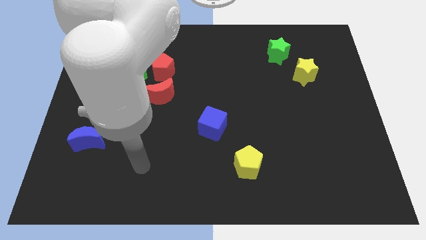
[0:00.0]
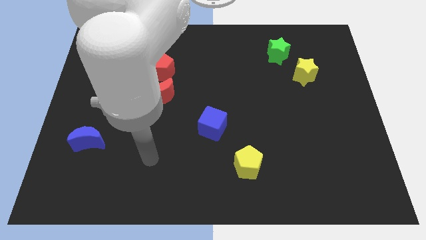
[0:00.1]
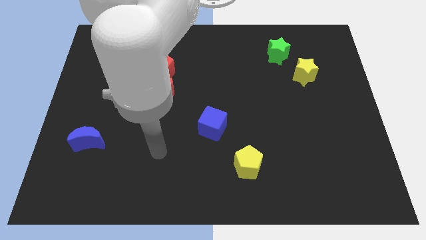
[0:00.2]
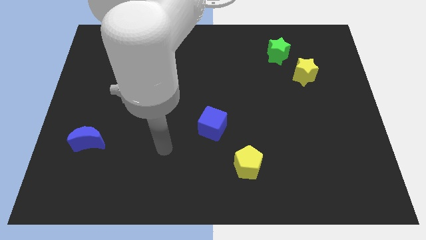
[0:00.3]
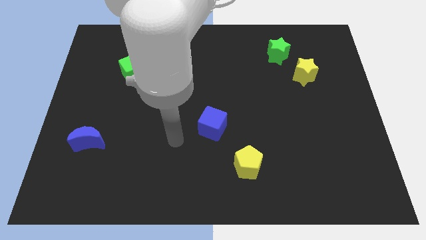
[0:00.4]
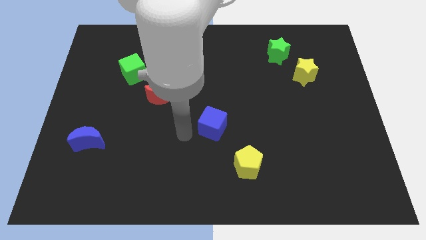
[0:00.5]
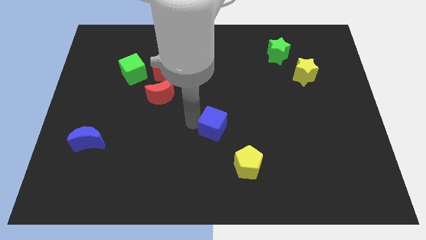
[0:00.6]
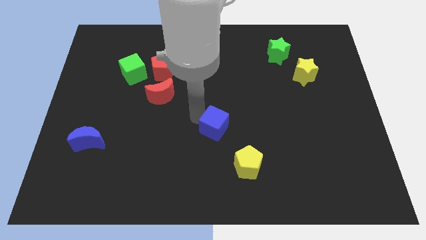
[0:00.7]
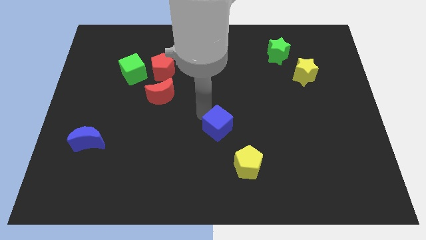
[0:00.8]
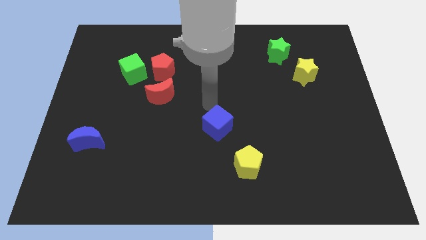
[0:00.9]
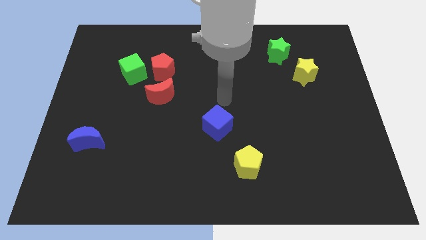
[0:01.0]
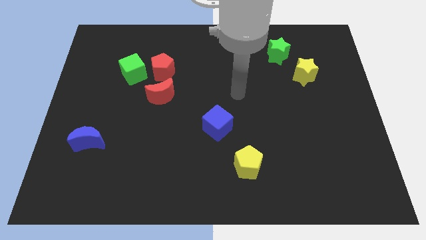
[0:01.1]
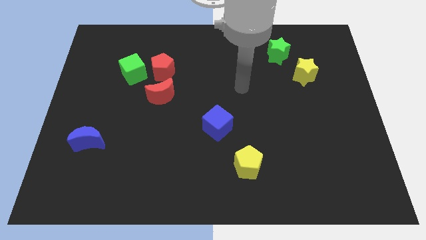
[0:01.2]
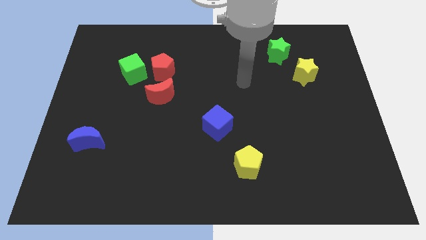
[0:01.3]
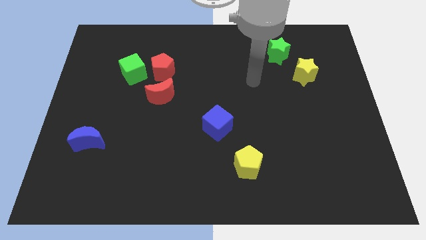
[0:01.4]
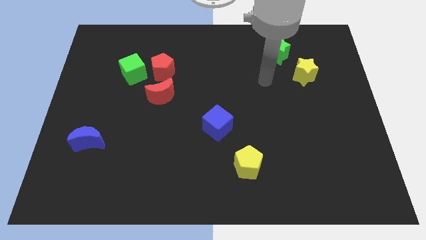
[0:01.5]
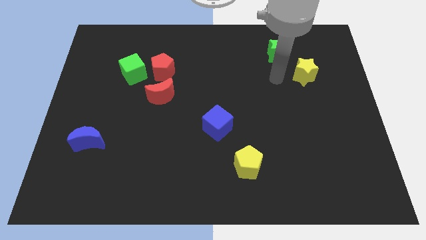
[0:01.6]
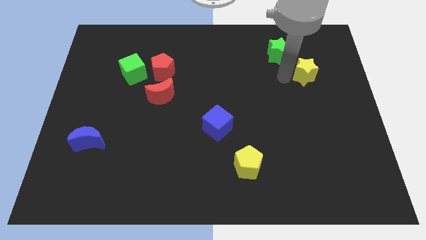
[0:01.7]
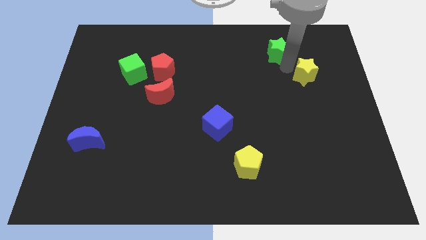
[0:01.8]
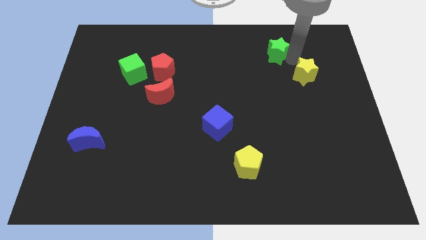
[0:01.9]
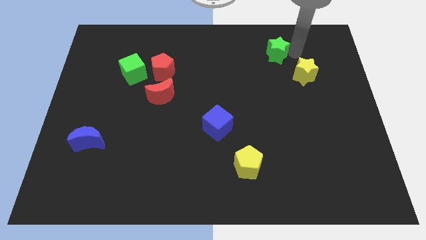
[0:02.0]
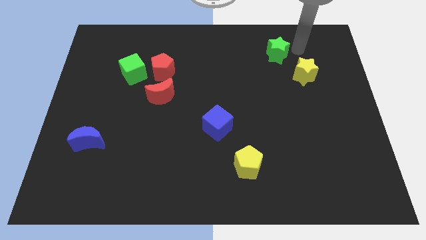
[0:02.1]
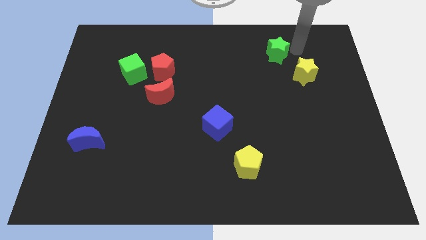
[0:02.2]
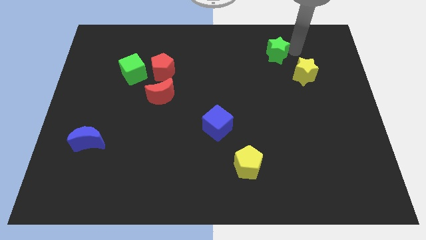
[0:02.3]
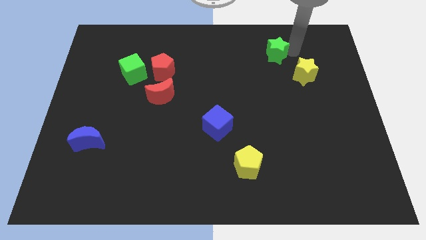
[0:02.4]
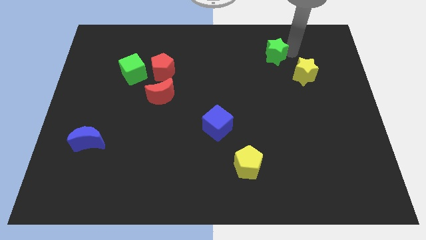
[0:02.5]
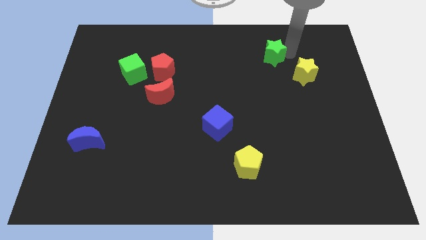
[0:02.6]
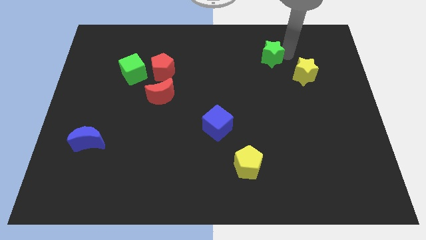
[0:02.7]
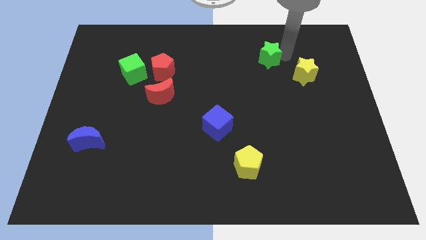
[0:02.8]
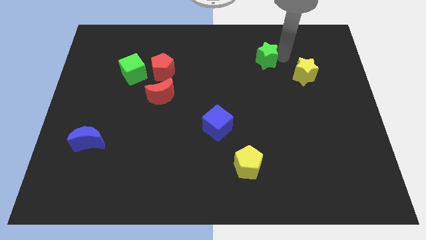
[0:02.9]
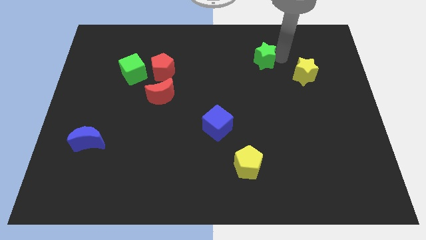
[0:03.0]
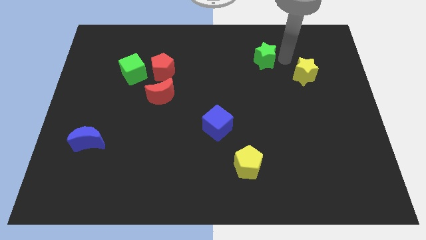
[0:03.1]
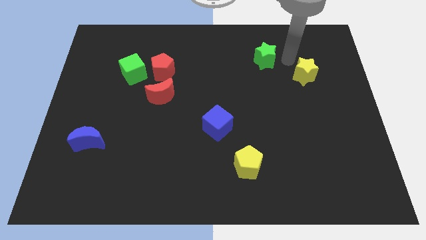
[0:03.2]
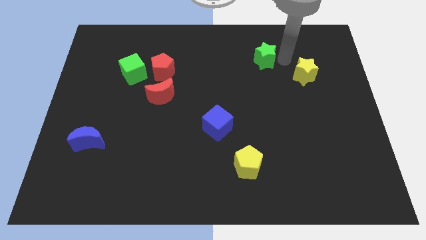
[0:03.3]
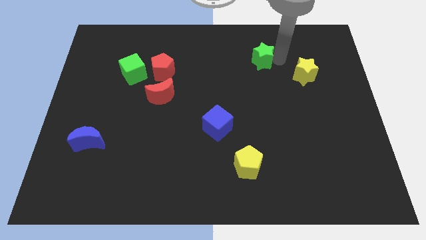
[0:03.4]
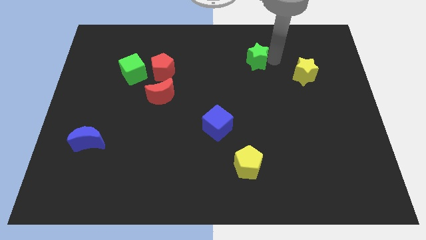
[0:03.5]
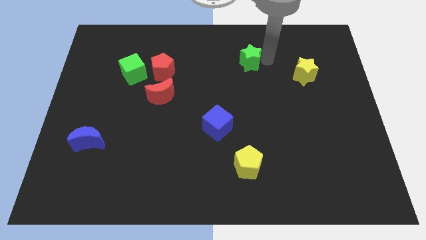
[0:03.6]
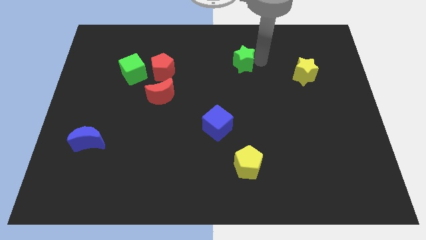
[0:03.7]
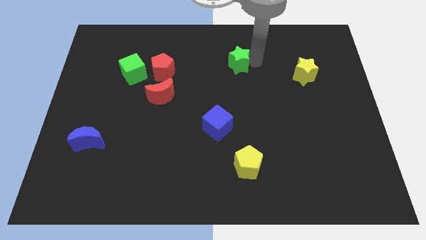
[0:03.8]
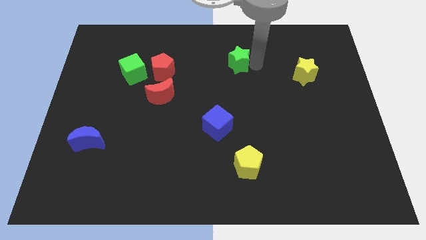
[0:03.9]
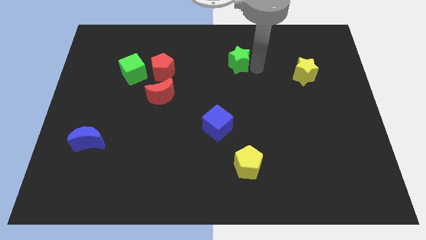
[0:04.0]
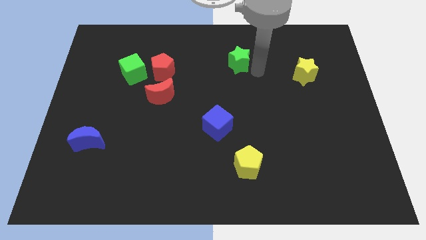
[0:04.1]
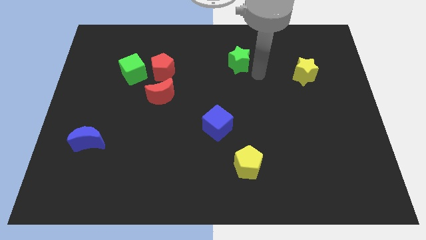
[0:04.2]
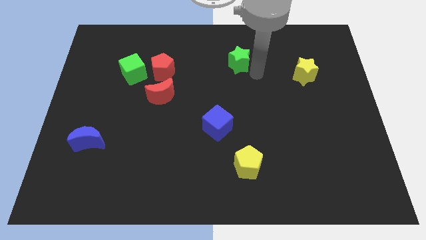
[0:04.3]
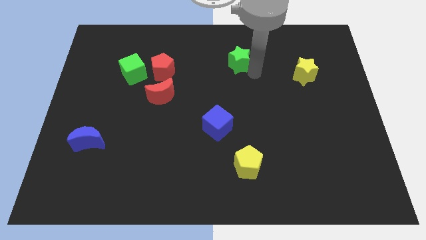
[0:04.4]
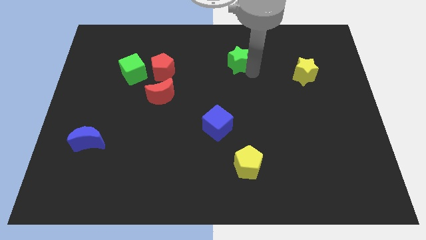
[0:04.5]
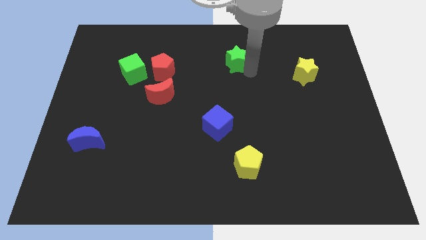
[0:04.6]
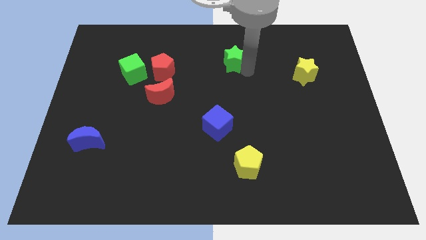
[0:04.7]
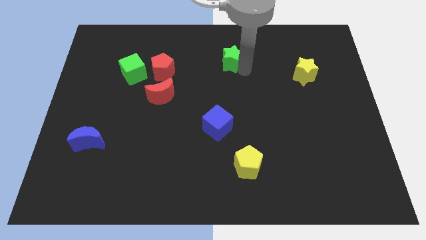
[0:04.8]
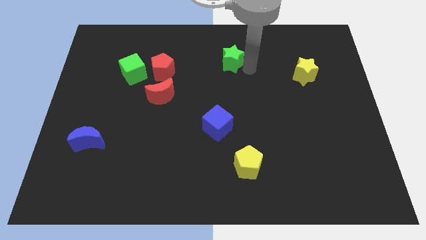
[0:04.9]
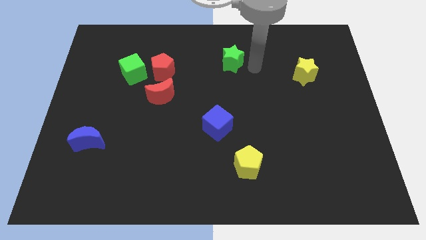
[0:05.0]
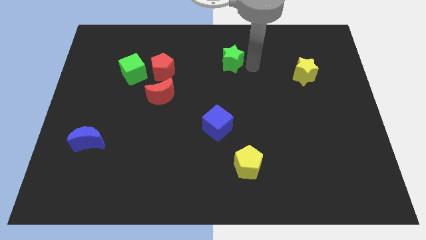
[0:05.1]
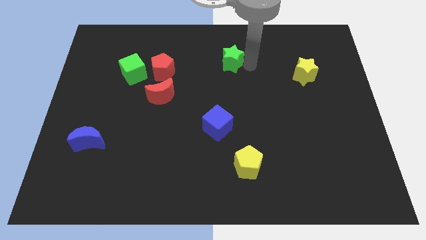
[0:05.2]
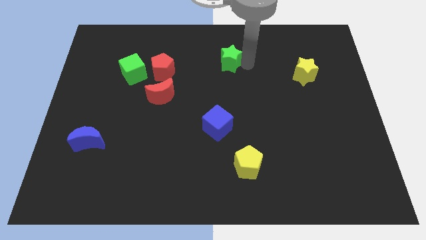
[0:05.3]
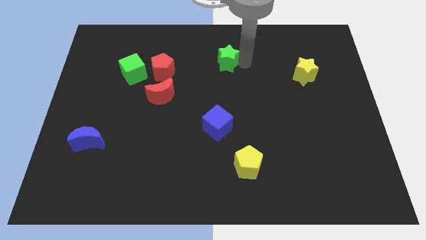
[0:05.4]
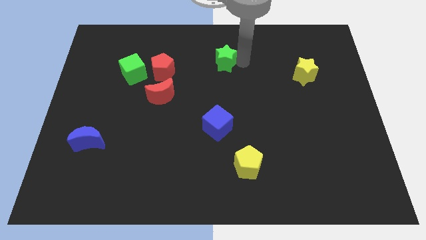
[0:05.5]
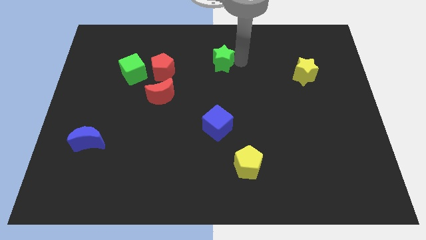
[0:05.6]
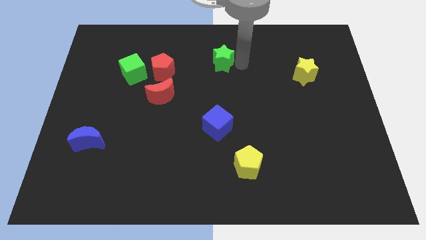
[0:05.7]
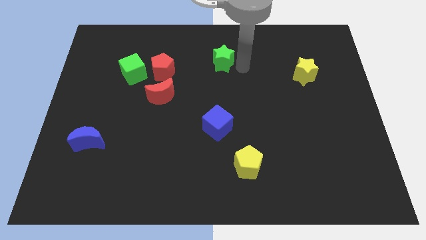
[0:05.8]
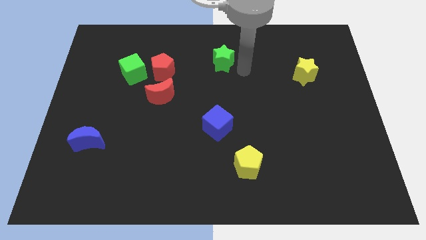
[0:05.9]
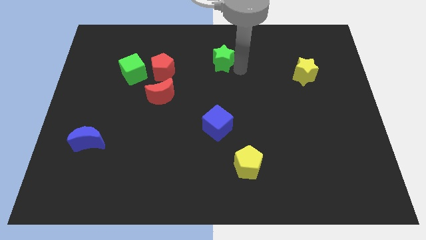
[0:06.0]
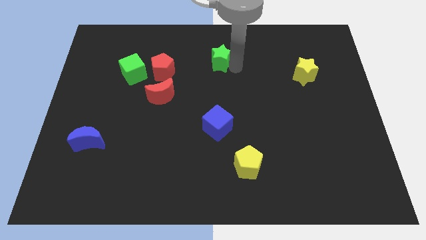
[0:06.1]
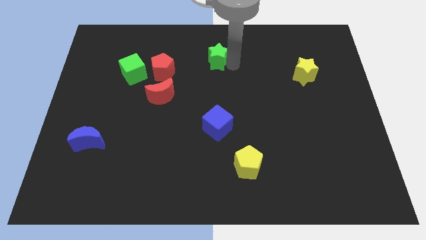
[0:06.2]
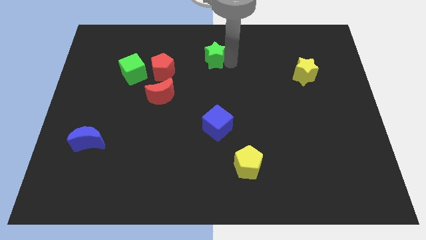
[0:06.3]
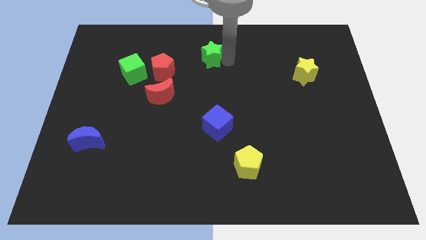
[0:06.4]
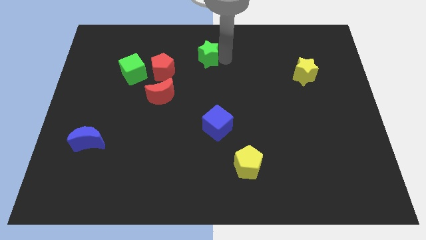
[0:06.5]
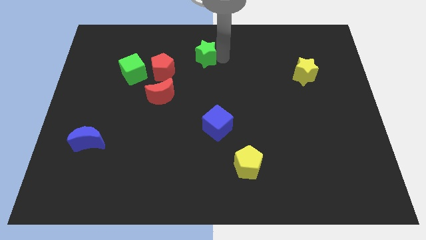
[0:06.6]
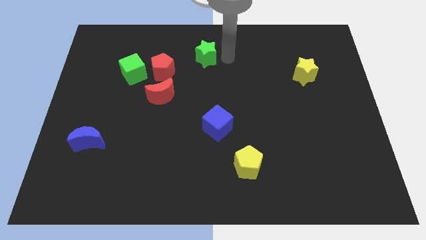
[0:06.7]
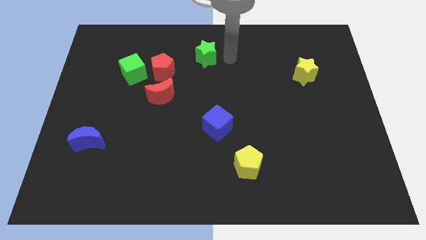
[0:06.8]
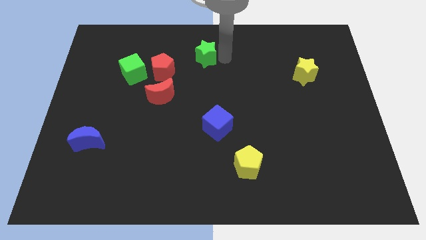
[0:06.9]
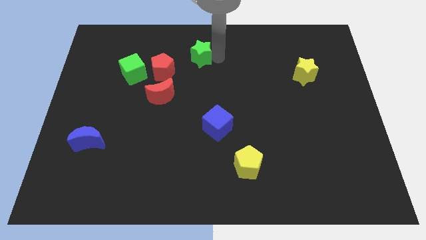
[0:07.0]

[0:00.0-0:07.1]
slide the green star to the left

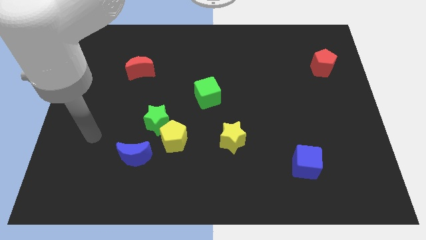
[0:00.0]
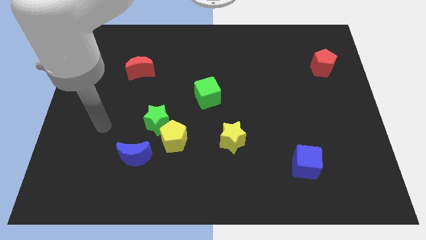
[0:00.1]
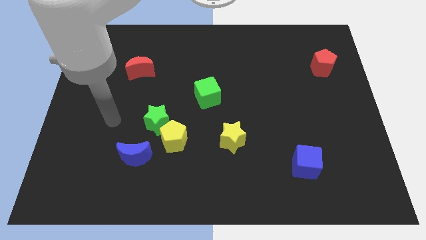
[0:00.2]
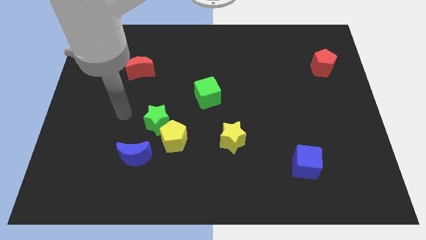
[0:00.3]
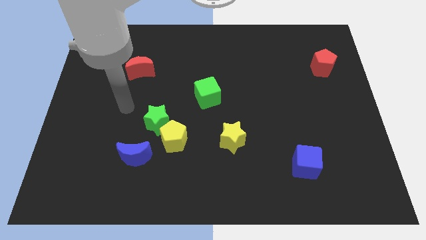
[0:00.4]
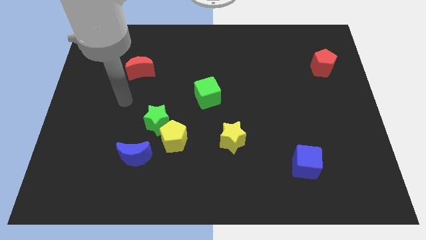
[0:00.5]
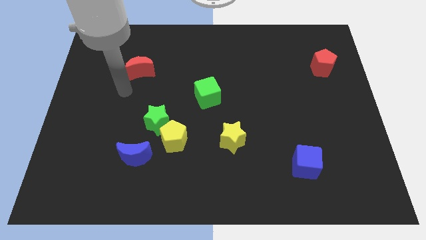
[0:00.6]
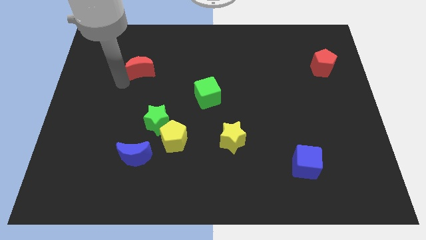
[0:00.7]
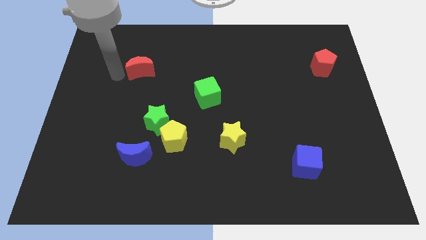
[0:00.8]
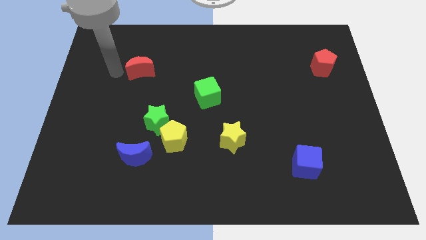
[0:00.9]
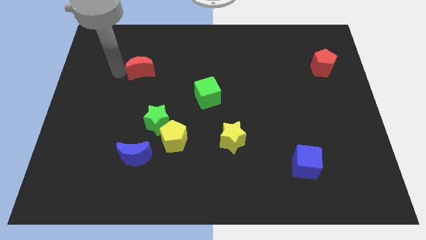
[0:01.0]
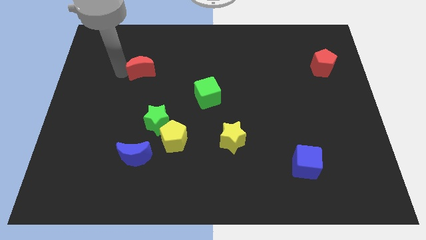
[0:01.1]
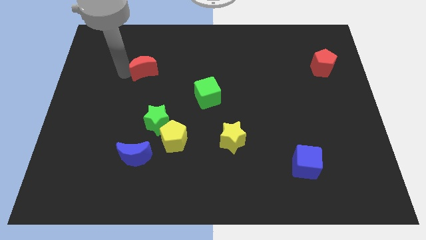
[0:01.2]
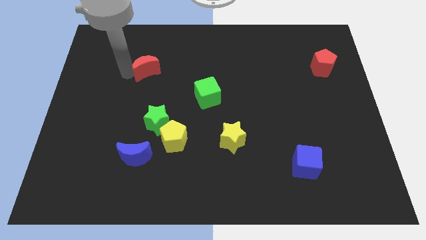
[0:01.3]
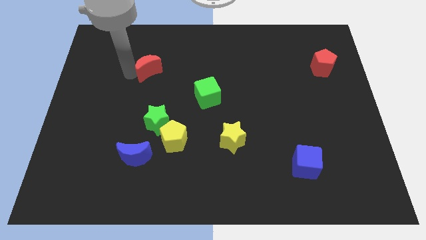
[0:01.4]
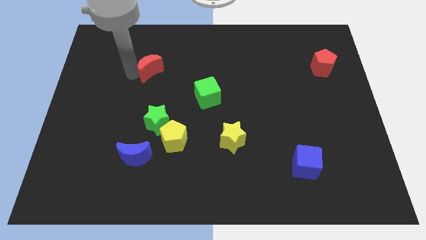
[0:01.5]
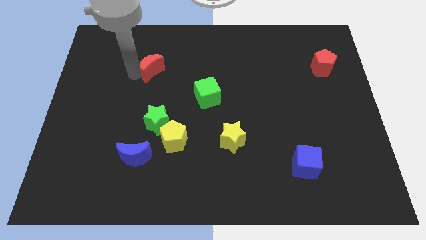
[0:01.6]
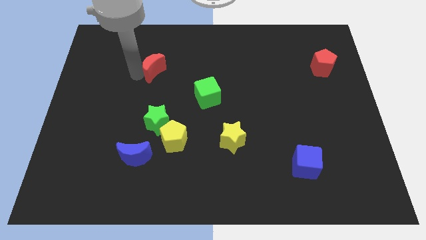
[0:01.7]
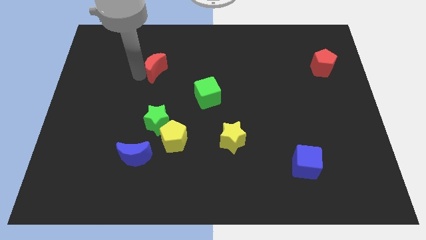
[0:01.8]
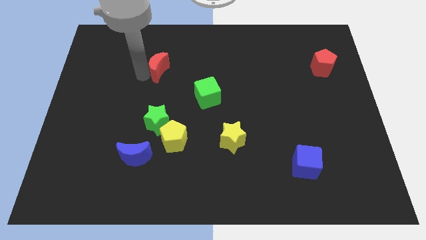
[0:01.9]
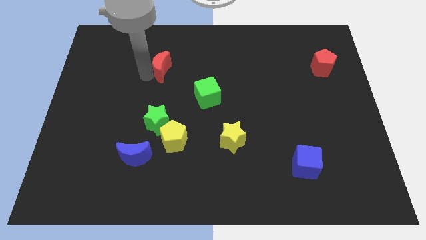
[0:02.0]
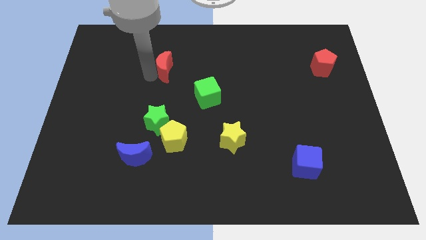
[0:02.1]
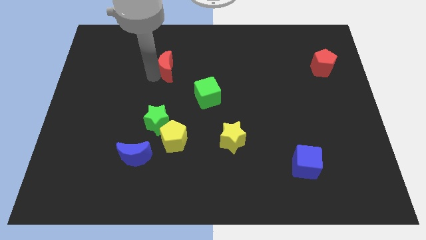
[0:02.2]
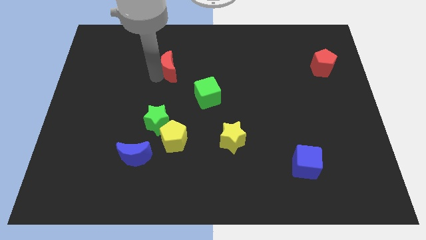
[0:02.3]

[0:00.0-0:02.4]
slightly slide the red moon right
